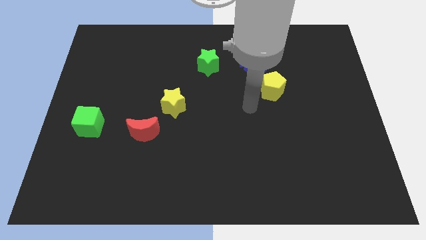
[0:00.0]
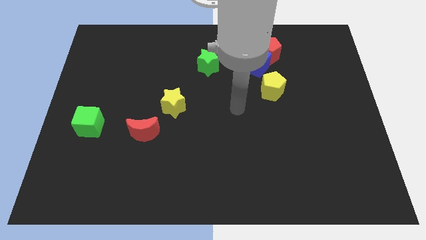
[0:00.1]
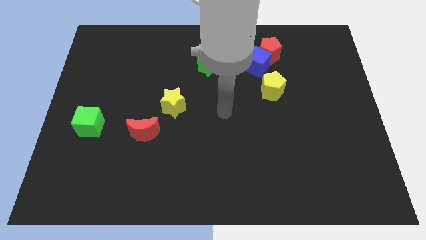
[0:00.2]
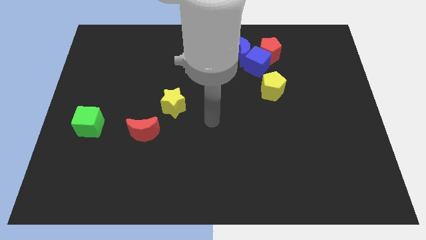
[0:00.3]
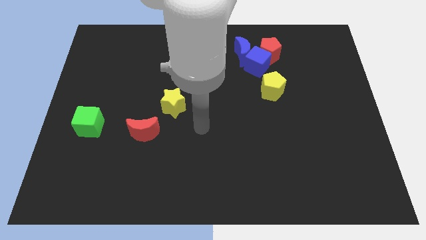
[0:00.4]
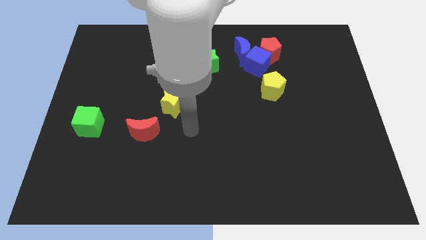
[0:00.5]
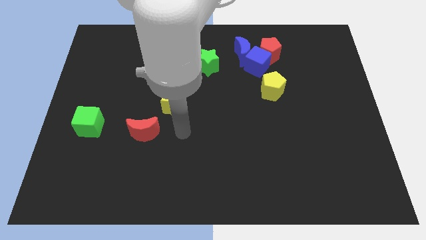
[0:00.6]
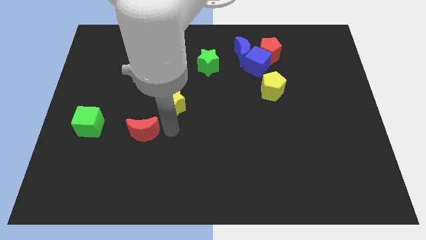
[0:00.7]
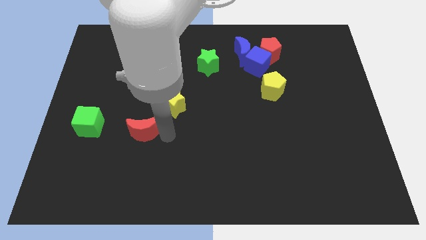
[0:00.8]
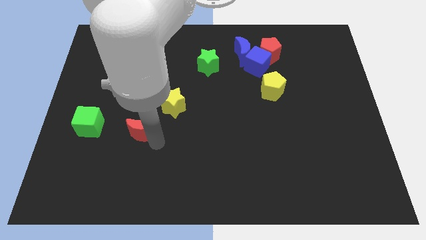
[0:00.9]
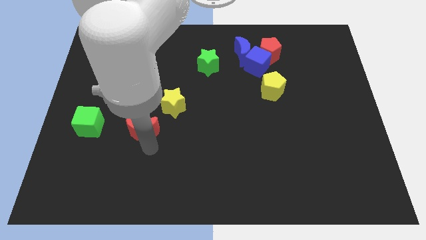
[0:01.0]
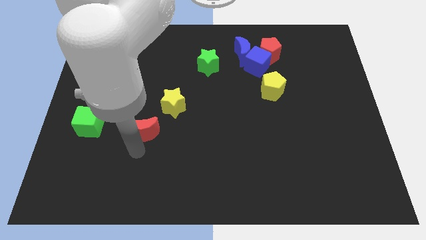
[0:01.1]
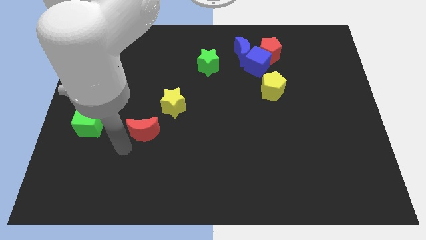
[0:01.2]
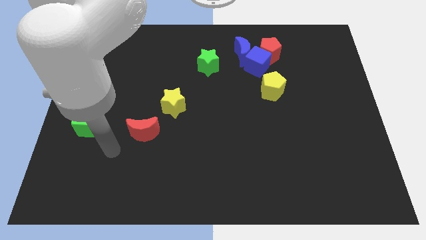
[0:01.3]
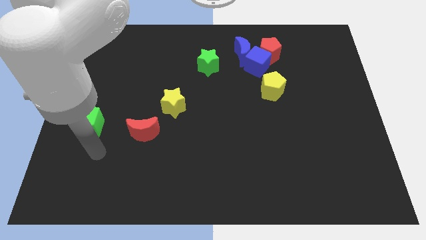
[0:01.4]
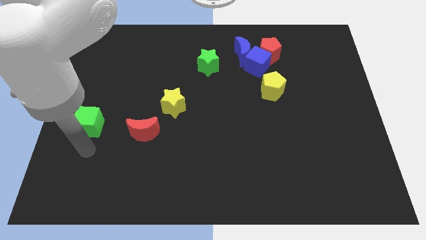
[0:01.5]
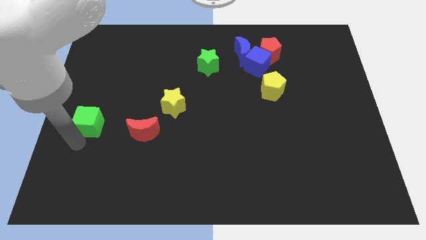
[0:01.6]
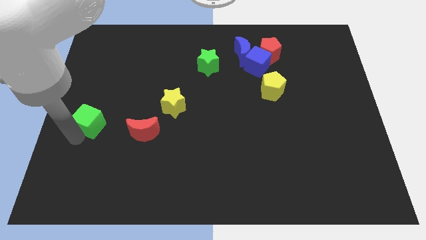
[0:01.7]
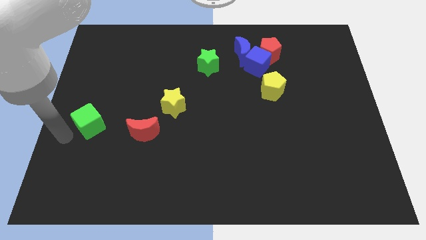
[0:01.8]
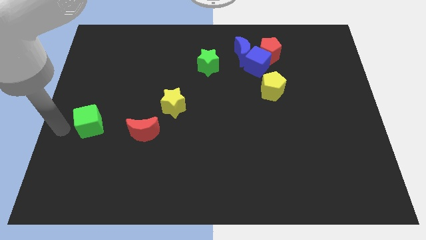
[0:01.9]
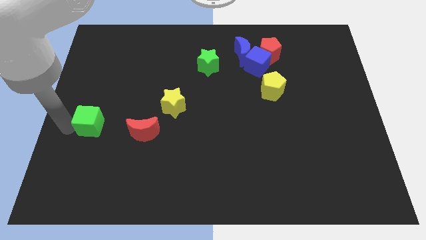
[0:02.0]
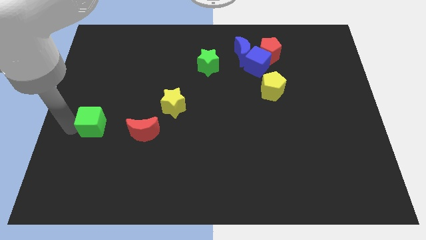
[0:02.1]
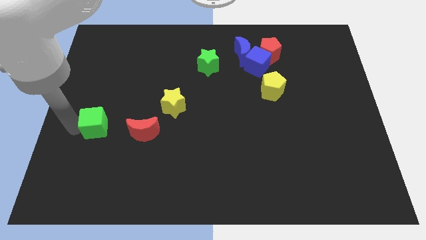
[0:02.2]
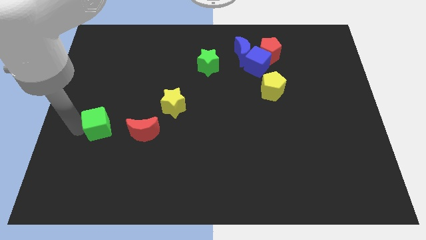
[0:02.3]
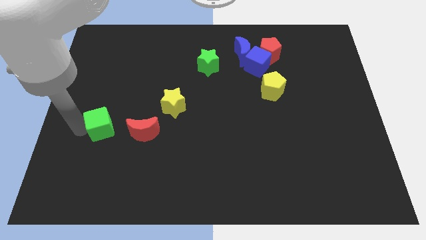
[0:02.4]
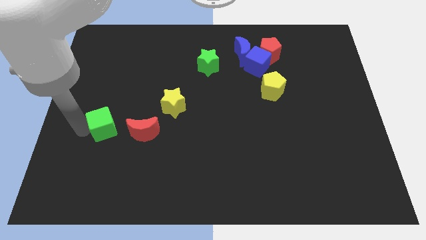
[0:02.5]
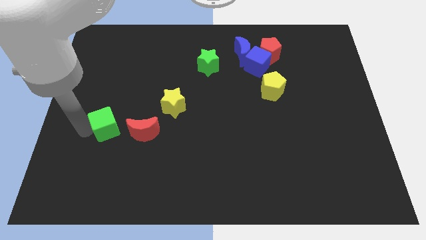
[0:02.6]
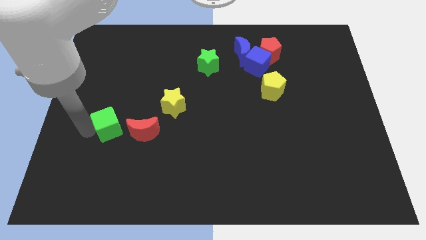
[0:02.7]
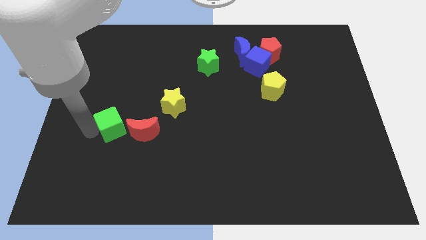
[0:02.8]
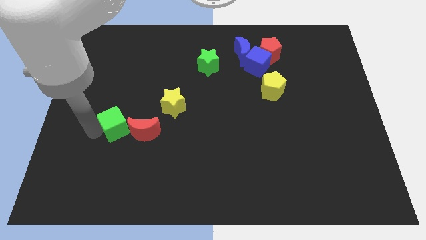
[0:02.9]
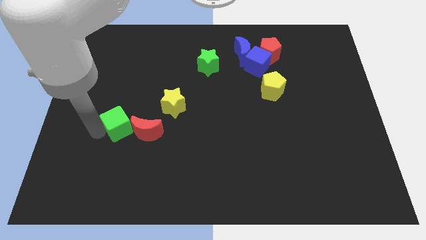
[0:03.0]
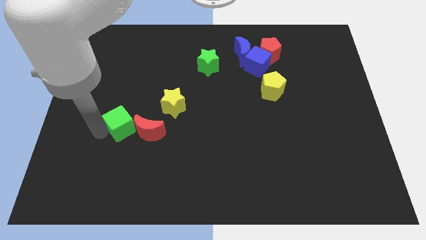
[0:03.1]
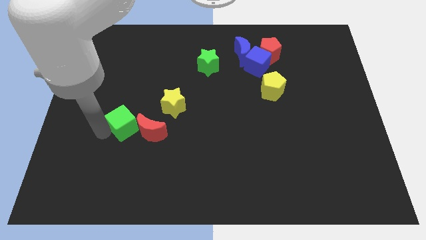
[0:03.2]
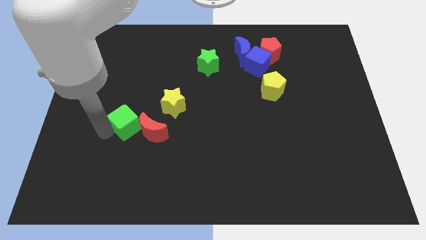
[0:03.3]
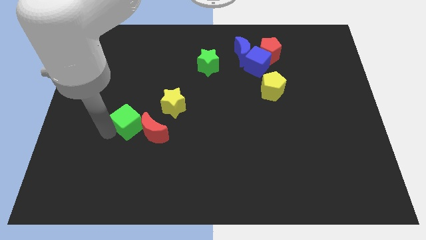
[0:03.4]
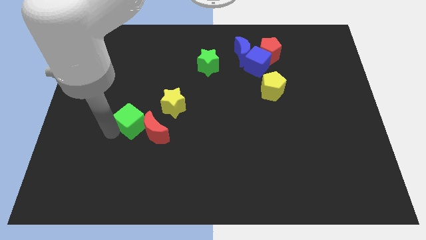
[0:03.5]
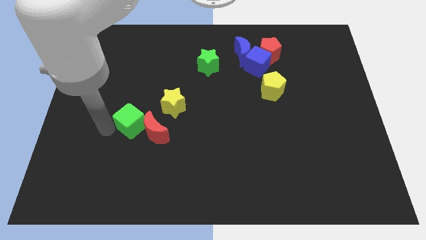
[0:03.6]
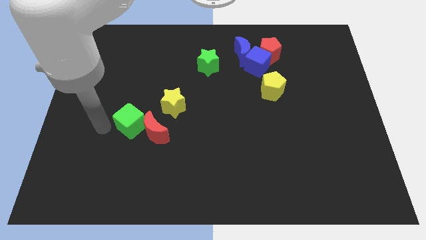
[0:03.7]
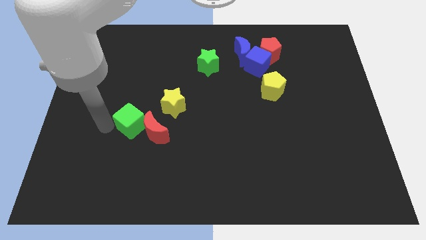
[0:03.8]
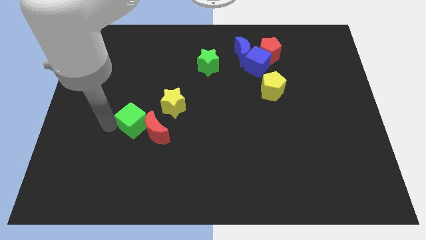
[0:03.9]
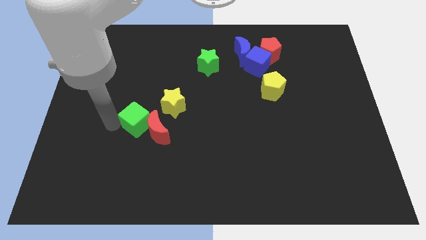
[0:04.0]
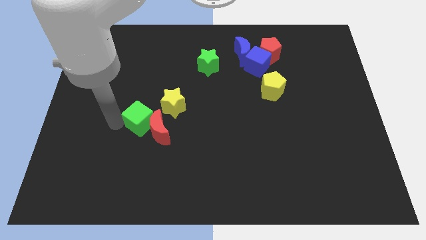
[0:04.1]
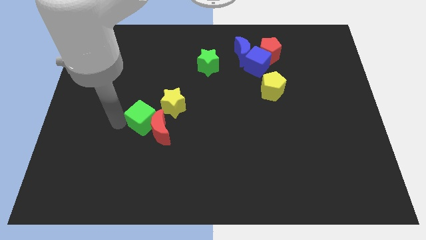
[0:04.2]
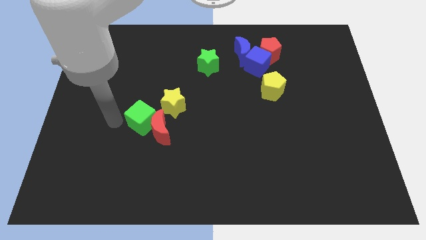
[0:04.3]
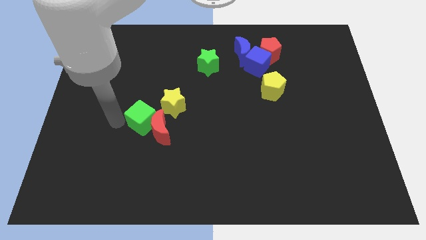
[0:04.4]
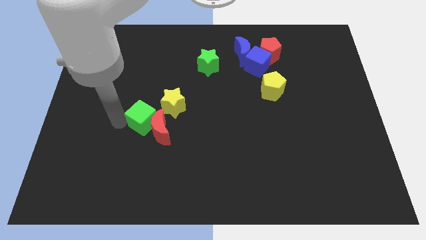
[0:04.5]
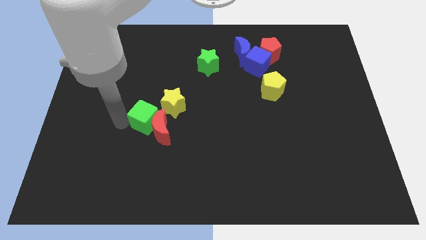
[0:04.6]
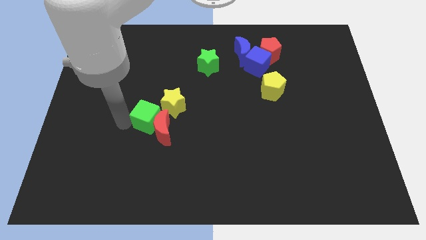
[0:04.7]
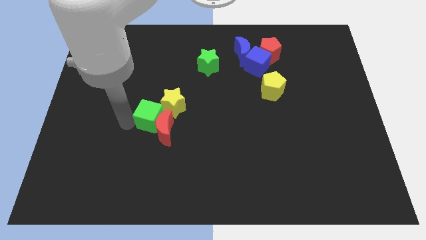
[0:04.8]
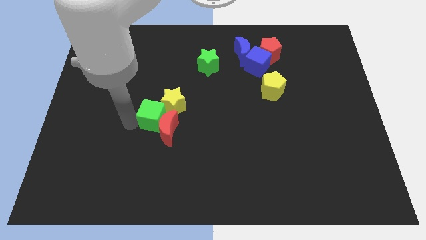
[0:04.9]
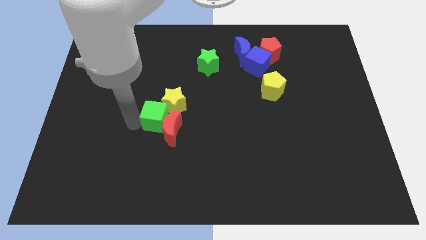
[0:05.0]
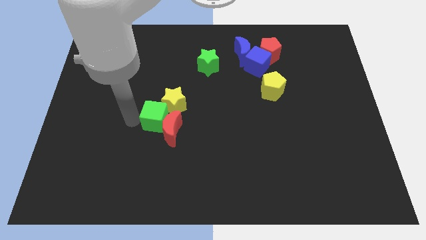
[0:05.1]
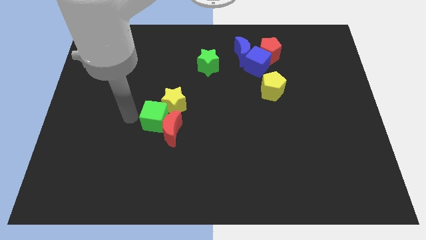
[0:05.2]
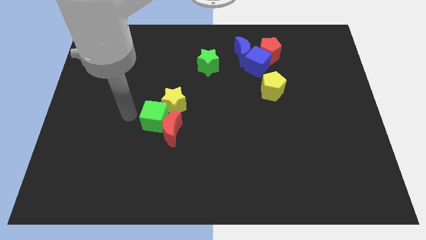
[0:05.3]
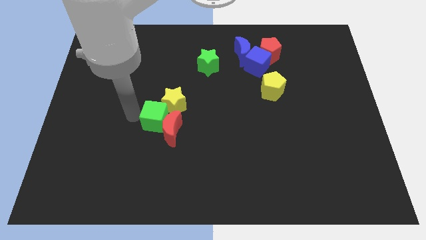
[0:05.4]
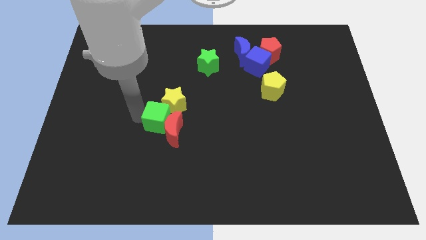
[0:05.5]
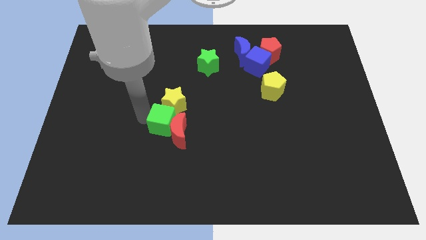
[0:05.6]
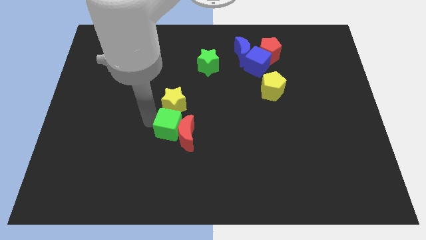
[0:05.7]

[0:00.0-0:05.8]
put the green cube to the middle of the board

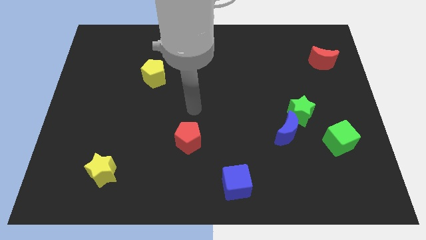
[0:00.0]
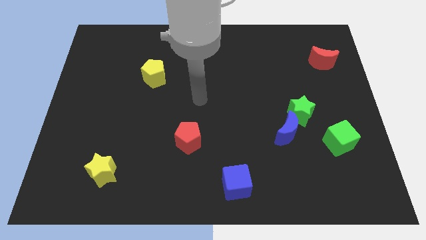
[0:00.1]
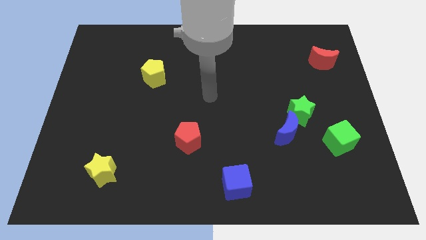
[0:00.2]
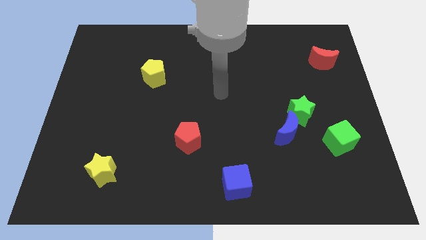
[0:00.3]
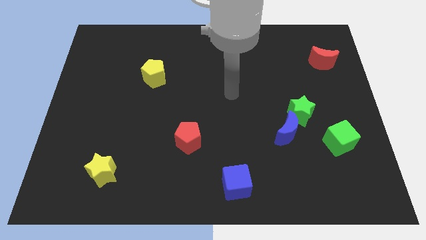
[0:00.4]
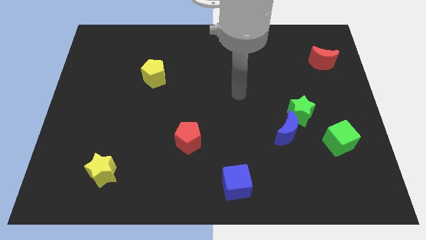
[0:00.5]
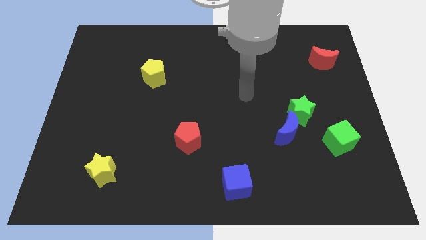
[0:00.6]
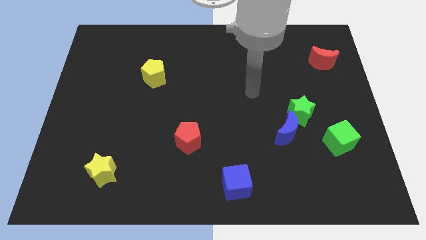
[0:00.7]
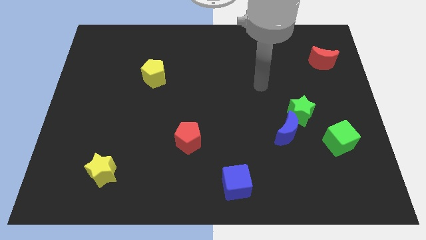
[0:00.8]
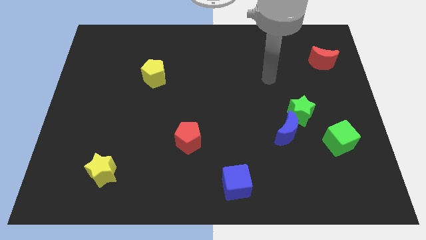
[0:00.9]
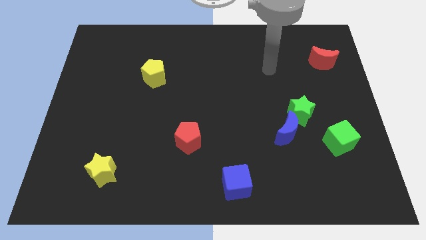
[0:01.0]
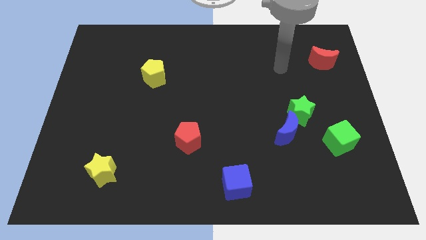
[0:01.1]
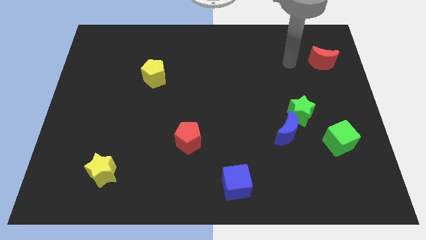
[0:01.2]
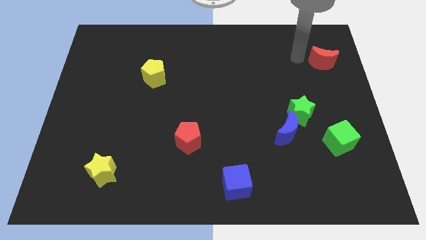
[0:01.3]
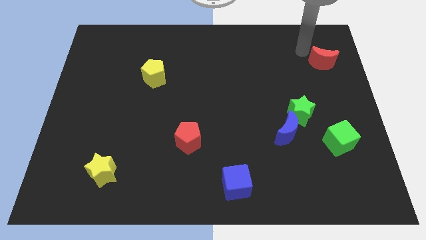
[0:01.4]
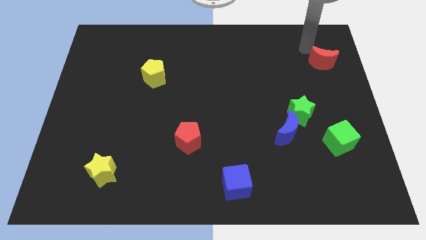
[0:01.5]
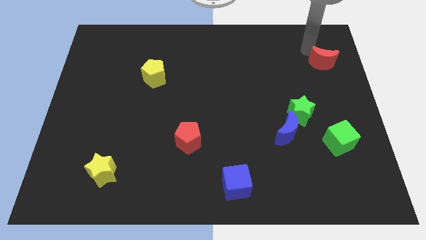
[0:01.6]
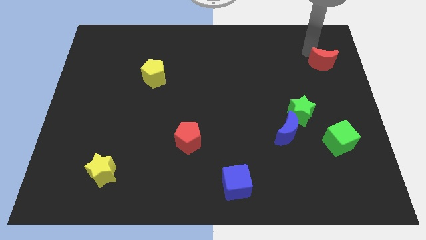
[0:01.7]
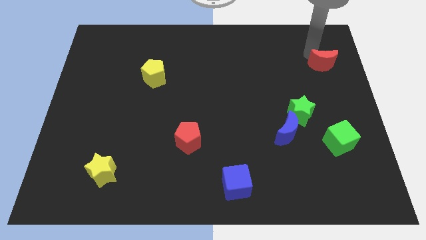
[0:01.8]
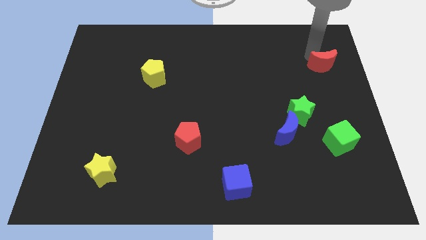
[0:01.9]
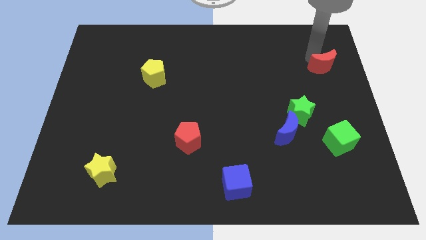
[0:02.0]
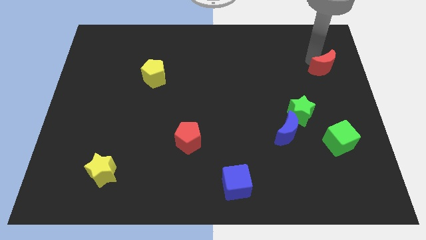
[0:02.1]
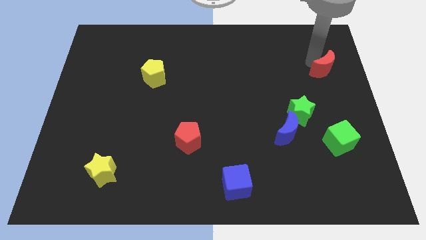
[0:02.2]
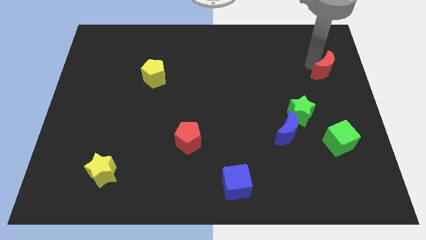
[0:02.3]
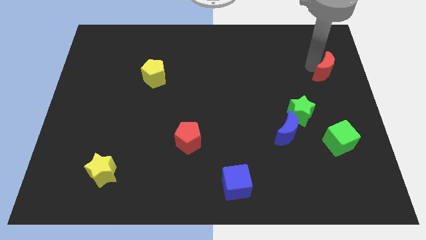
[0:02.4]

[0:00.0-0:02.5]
move the red moon to the right side
